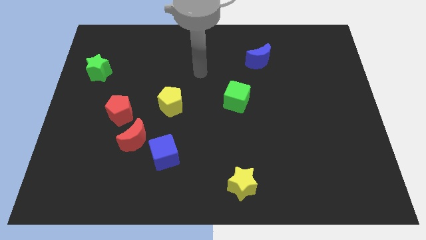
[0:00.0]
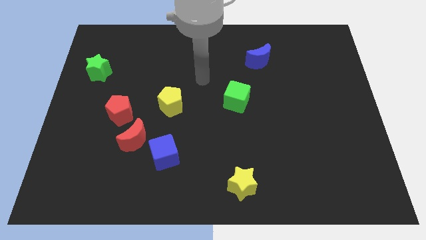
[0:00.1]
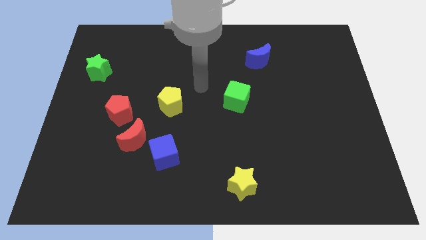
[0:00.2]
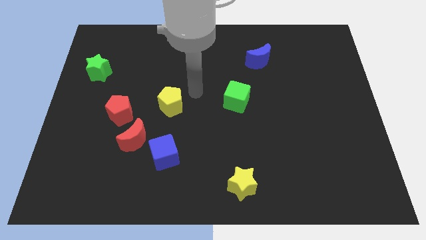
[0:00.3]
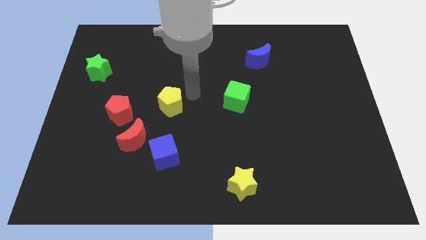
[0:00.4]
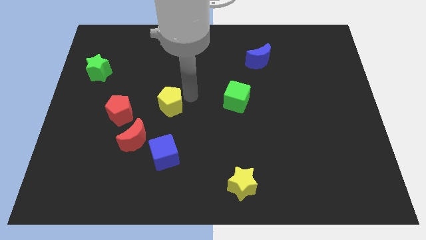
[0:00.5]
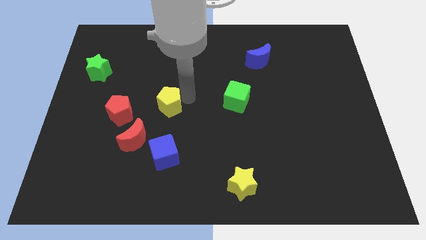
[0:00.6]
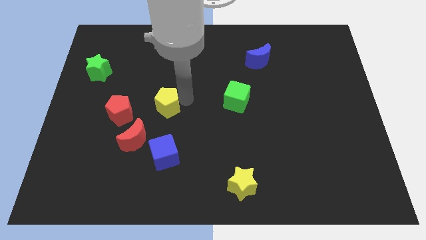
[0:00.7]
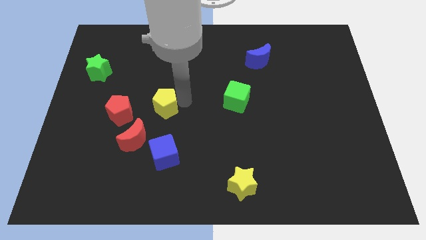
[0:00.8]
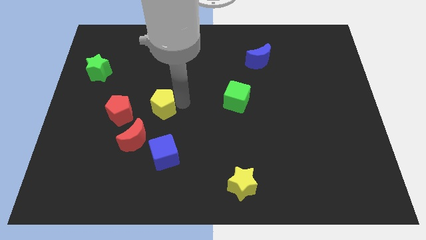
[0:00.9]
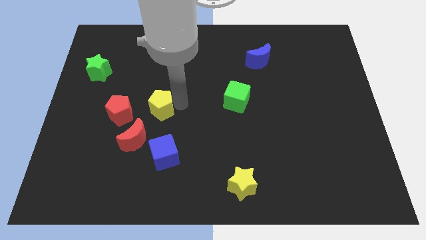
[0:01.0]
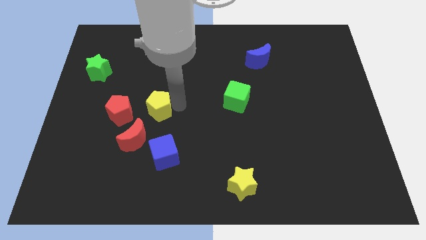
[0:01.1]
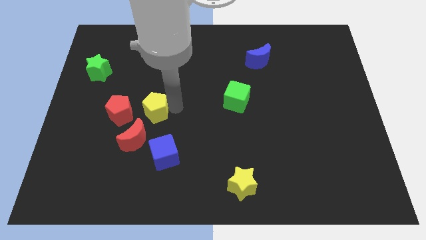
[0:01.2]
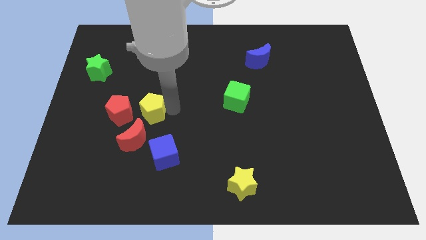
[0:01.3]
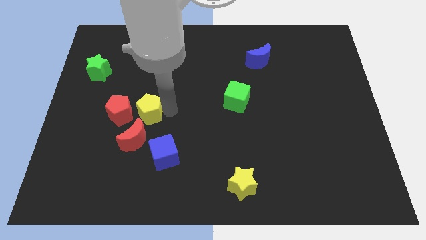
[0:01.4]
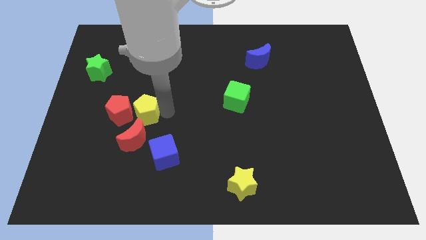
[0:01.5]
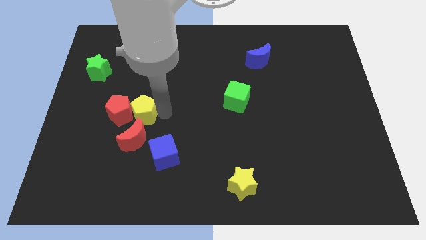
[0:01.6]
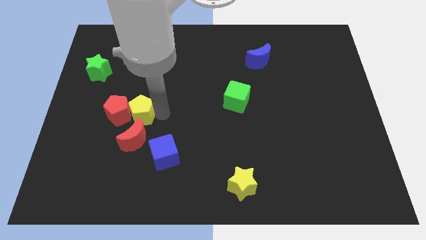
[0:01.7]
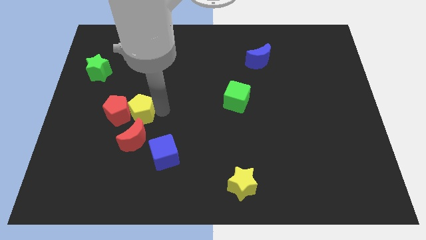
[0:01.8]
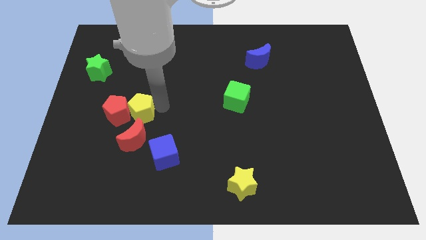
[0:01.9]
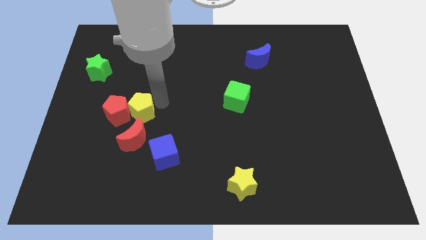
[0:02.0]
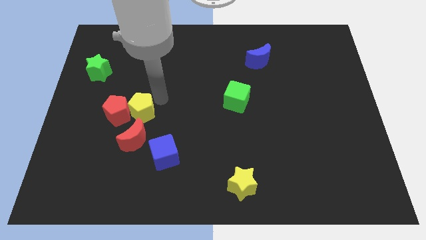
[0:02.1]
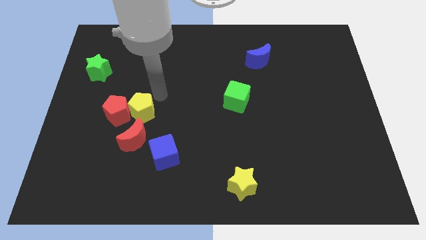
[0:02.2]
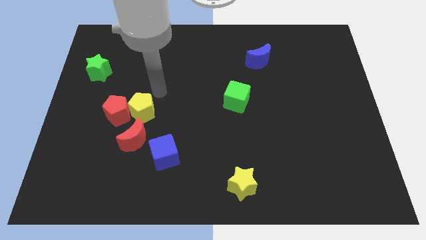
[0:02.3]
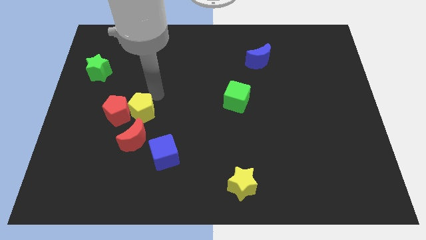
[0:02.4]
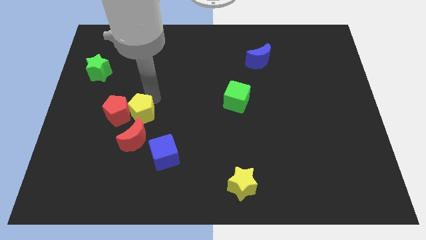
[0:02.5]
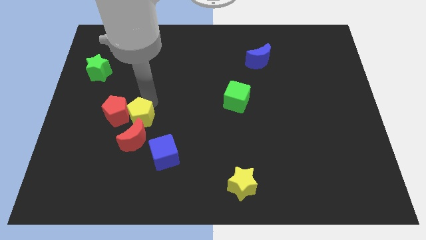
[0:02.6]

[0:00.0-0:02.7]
slide the yellow pentagon down and left somewhat

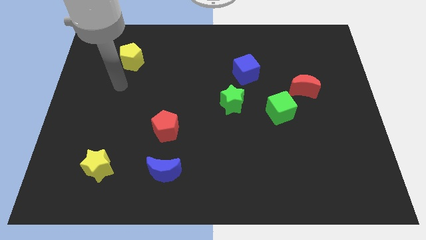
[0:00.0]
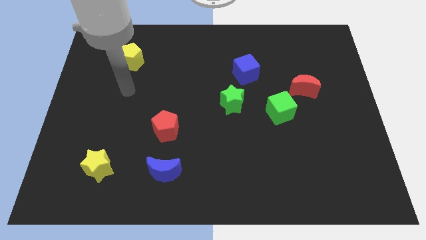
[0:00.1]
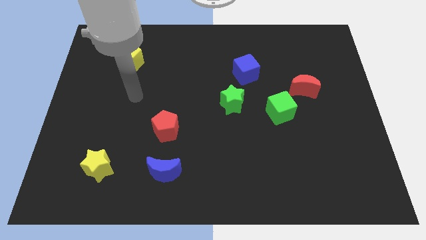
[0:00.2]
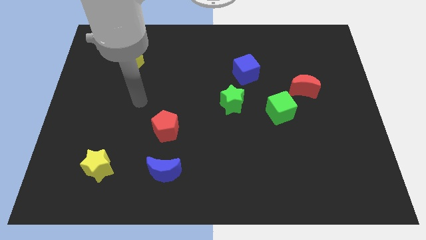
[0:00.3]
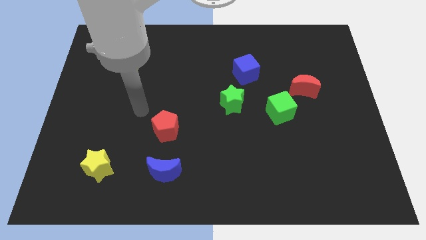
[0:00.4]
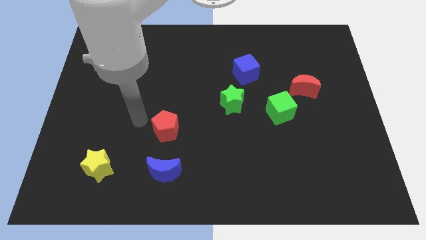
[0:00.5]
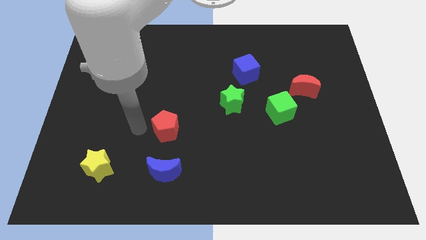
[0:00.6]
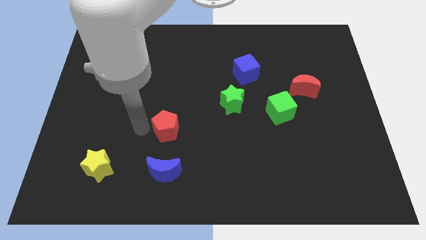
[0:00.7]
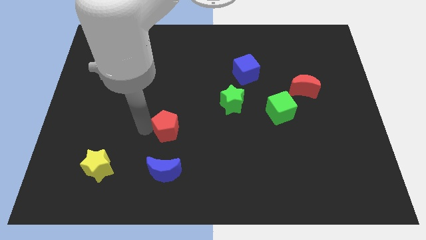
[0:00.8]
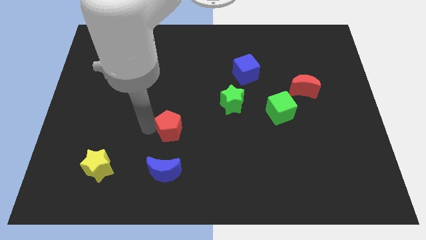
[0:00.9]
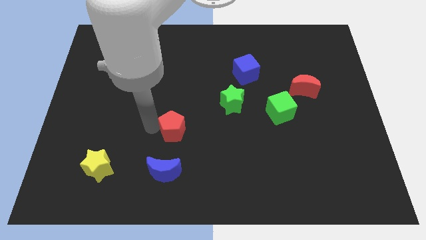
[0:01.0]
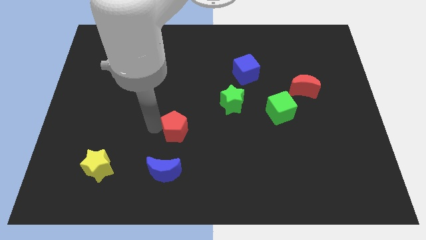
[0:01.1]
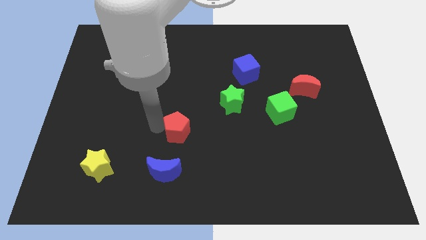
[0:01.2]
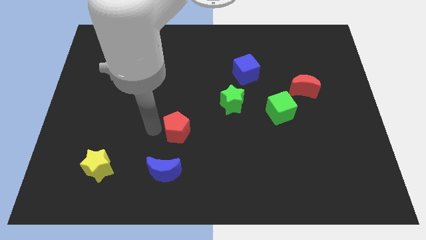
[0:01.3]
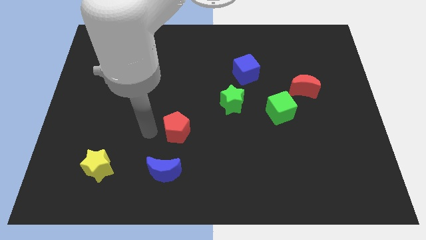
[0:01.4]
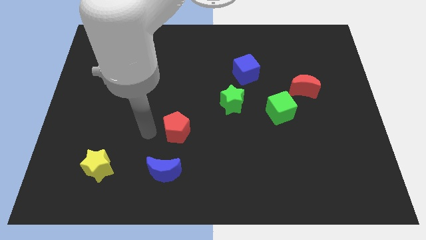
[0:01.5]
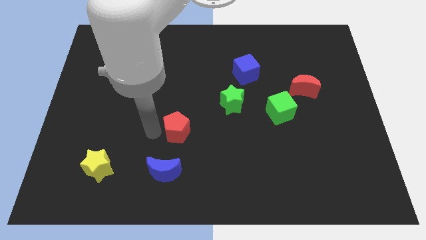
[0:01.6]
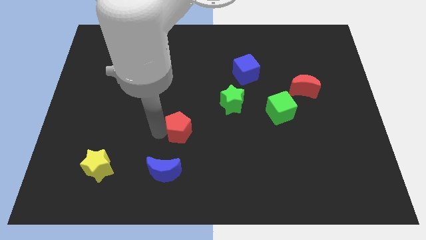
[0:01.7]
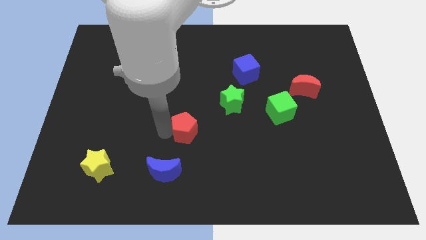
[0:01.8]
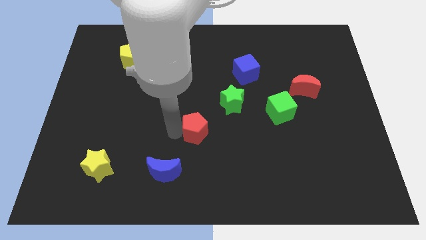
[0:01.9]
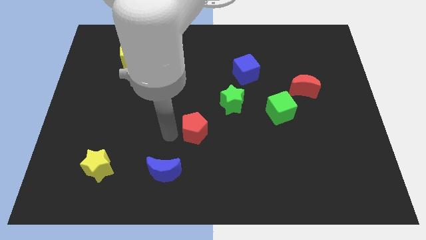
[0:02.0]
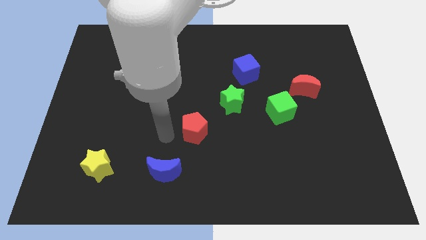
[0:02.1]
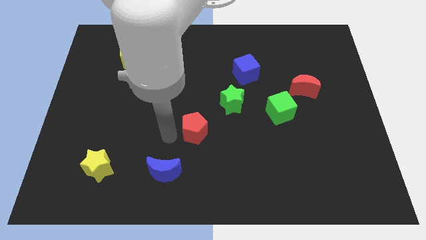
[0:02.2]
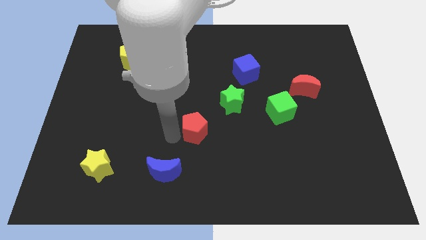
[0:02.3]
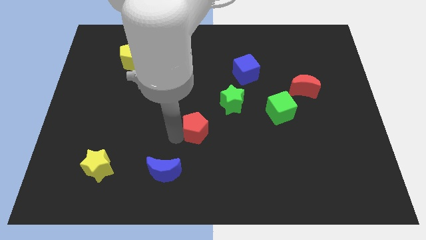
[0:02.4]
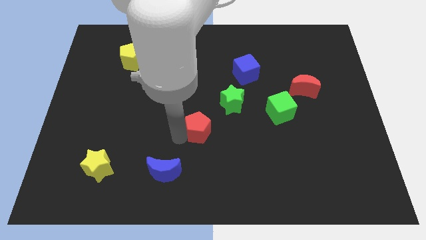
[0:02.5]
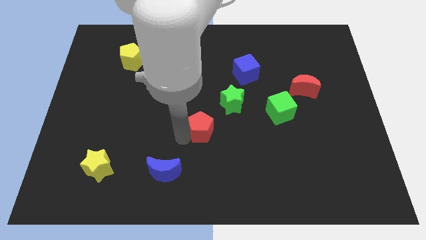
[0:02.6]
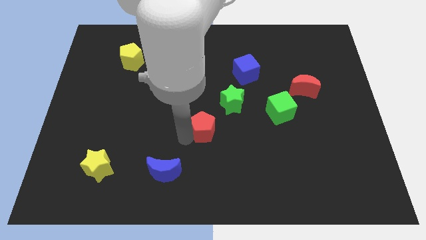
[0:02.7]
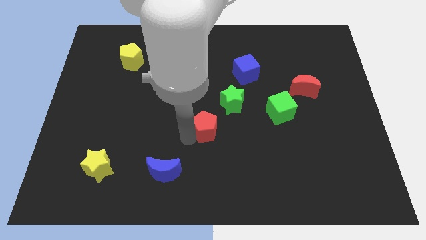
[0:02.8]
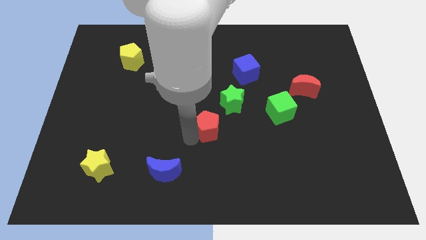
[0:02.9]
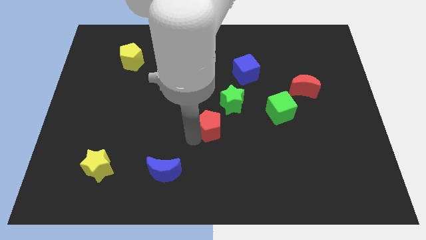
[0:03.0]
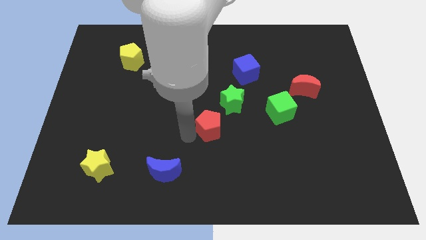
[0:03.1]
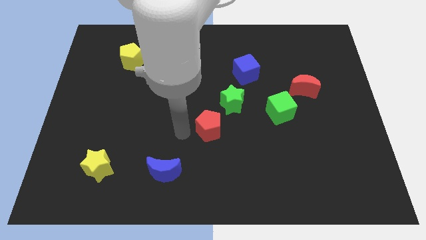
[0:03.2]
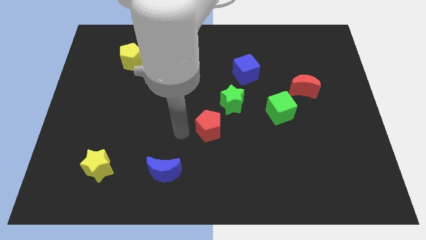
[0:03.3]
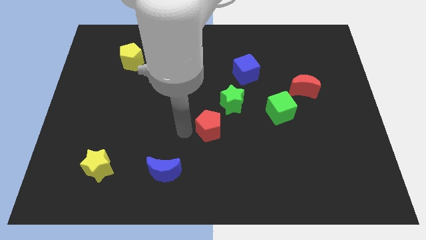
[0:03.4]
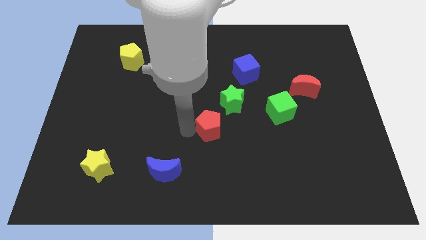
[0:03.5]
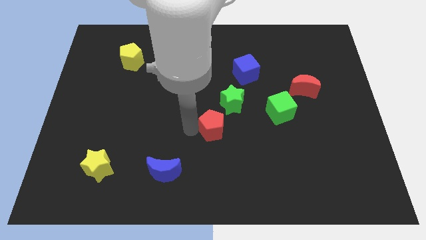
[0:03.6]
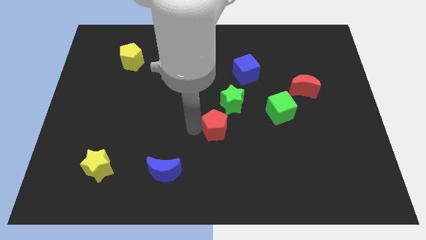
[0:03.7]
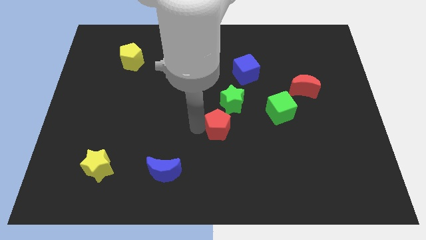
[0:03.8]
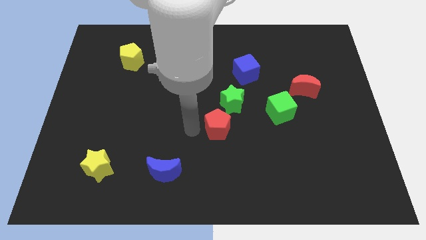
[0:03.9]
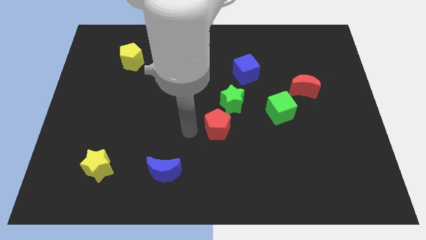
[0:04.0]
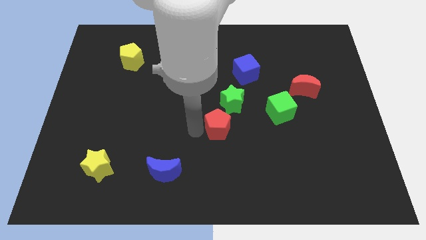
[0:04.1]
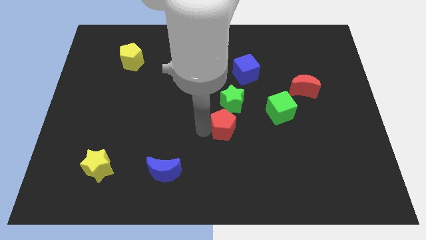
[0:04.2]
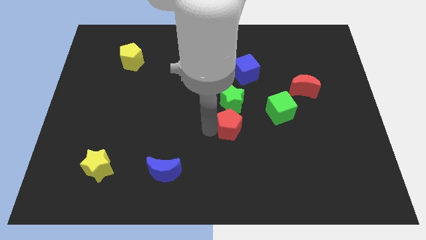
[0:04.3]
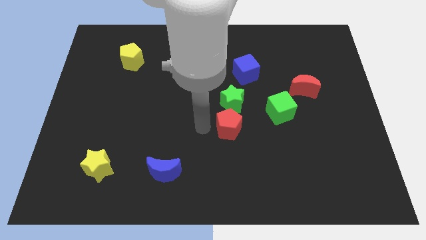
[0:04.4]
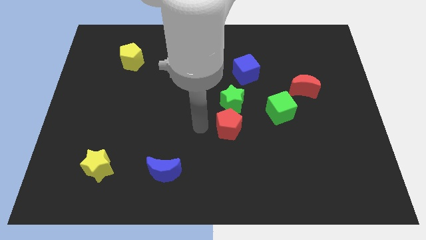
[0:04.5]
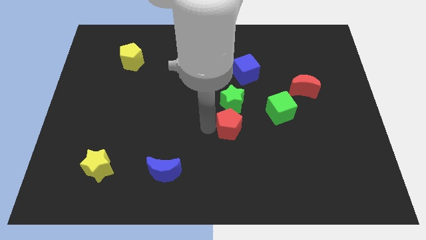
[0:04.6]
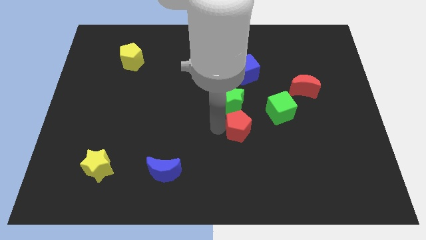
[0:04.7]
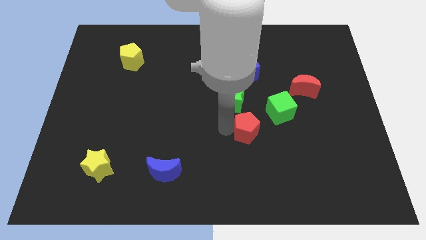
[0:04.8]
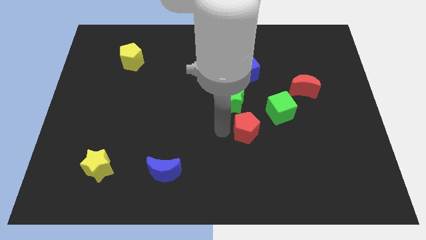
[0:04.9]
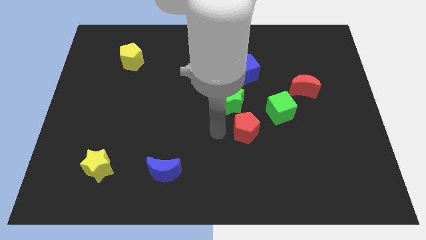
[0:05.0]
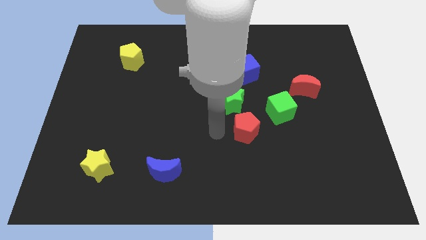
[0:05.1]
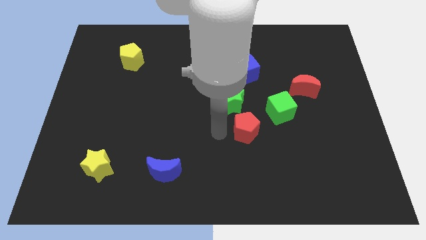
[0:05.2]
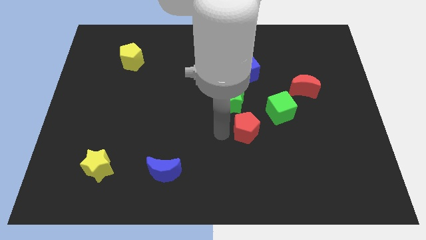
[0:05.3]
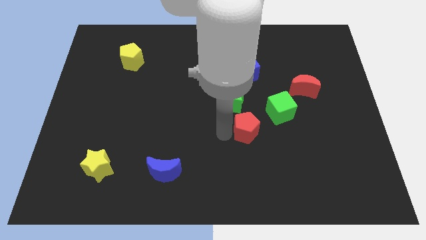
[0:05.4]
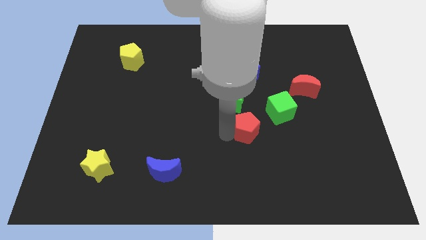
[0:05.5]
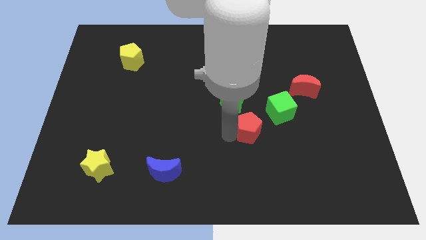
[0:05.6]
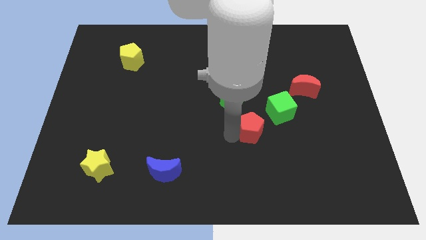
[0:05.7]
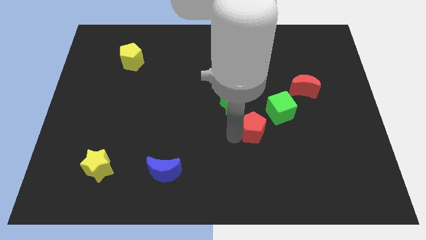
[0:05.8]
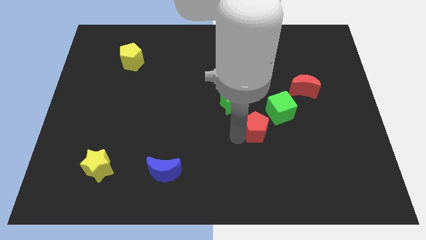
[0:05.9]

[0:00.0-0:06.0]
push the red pentagon right
